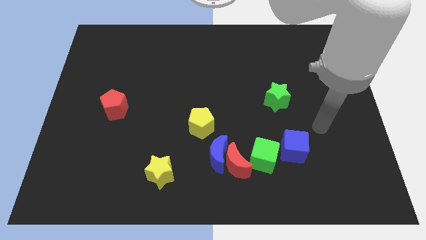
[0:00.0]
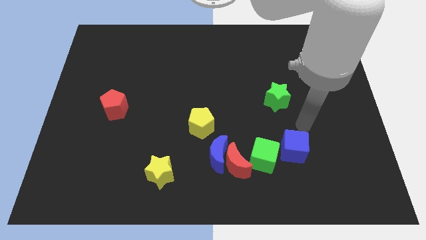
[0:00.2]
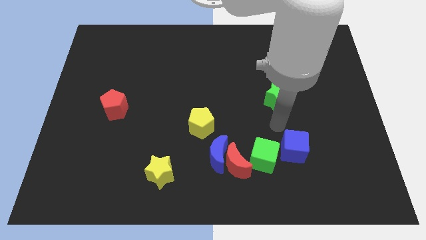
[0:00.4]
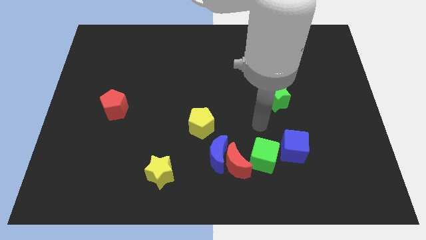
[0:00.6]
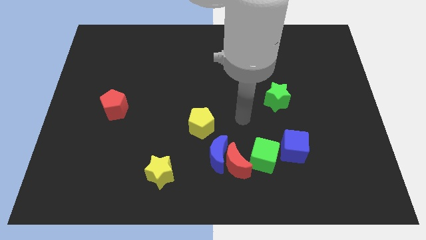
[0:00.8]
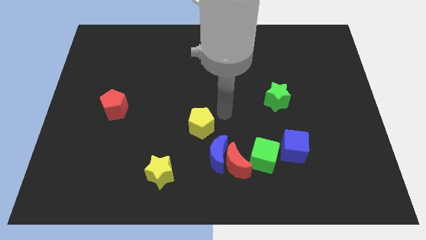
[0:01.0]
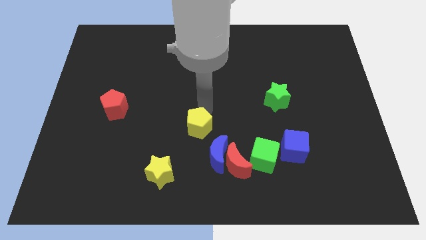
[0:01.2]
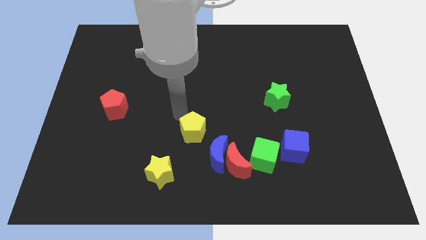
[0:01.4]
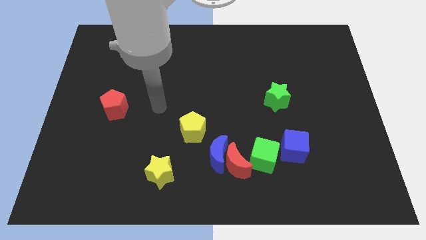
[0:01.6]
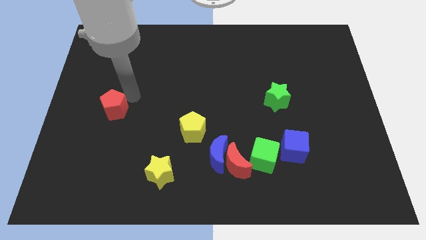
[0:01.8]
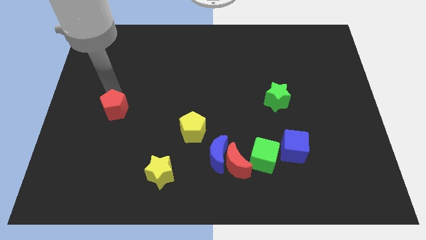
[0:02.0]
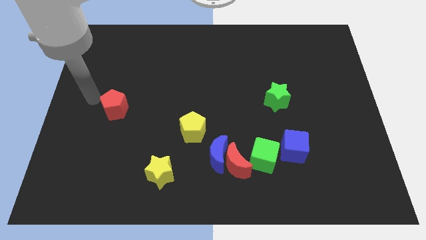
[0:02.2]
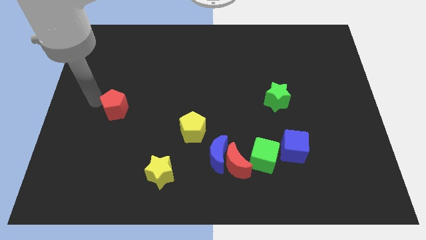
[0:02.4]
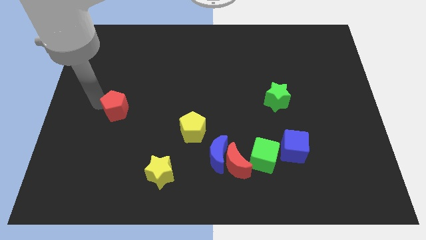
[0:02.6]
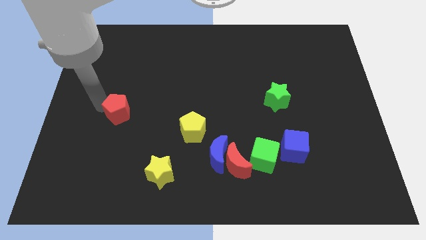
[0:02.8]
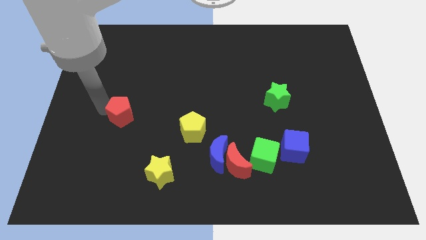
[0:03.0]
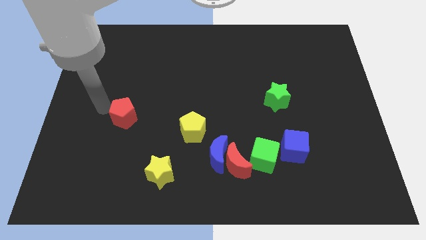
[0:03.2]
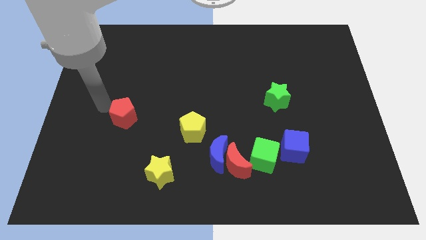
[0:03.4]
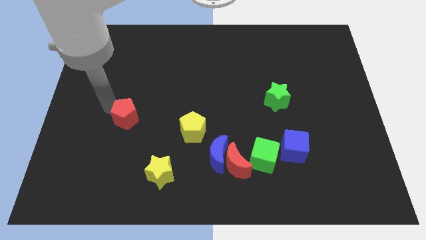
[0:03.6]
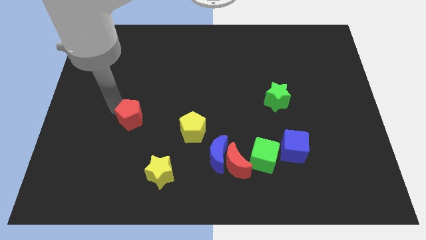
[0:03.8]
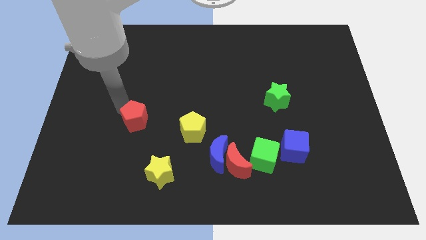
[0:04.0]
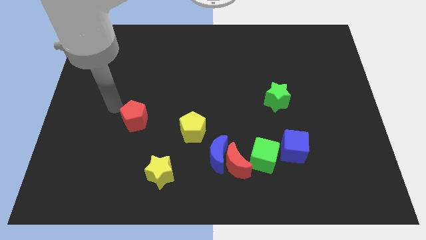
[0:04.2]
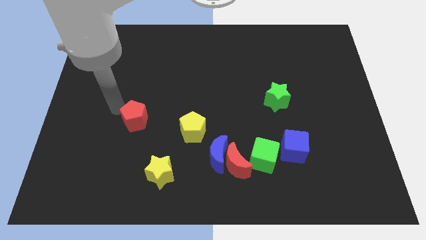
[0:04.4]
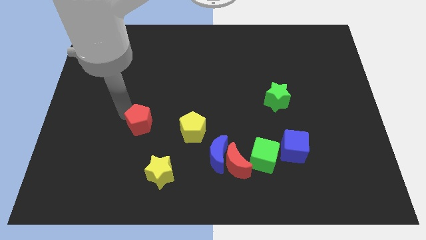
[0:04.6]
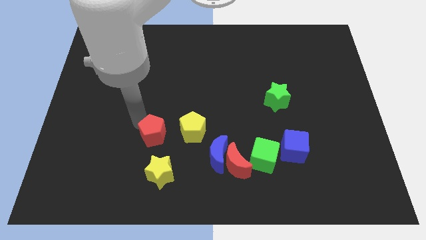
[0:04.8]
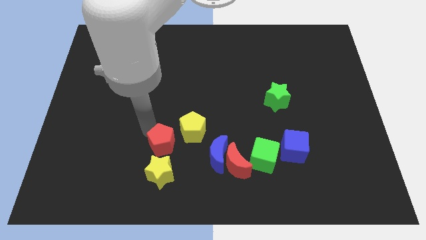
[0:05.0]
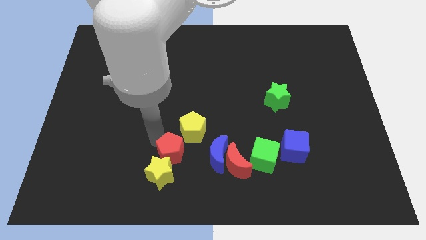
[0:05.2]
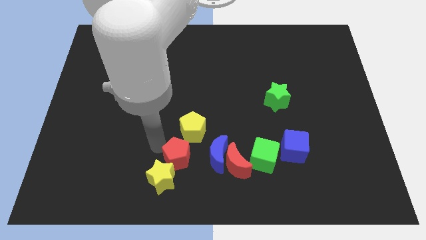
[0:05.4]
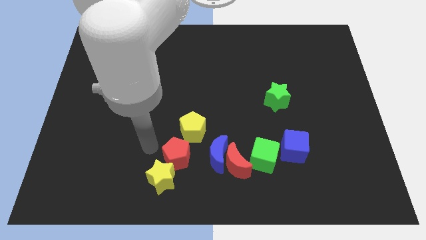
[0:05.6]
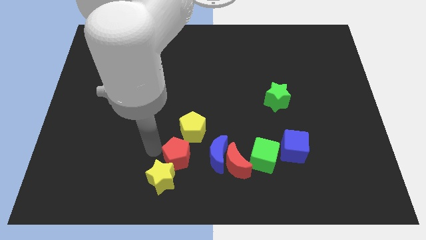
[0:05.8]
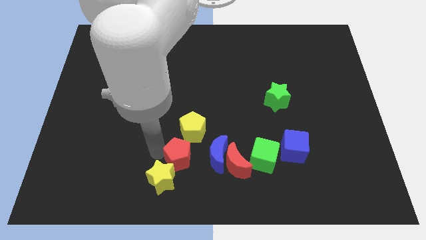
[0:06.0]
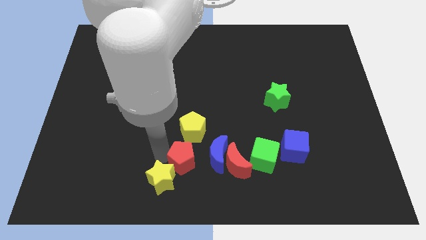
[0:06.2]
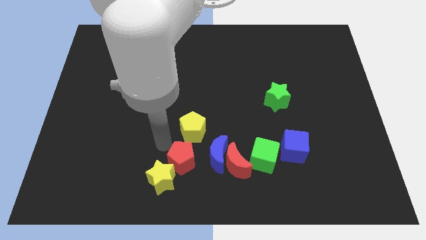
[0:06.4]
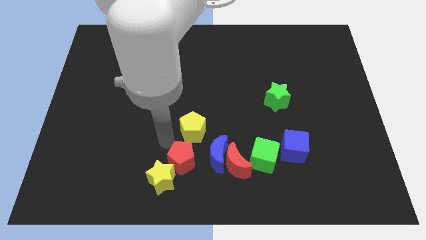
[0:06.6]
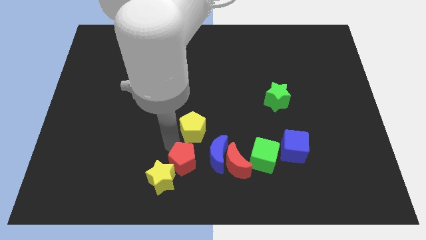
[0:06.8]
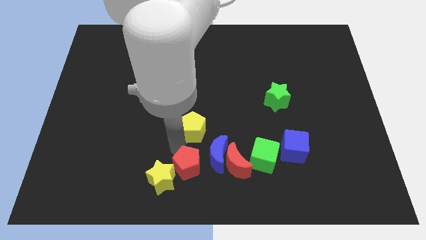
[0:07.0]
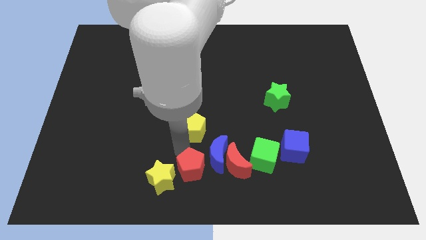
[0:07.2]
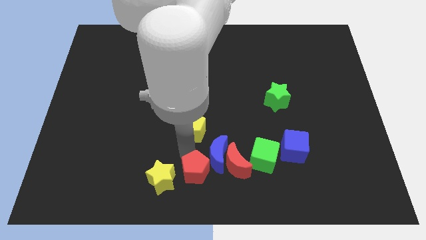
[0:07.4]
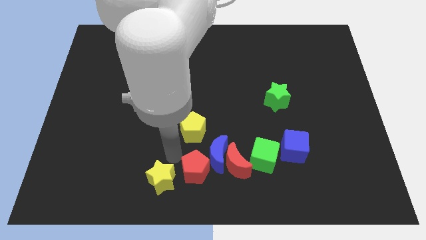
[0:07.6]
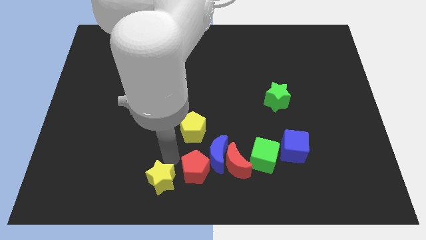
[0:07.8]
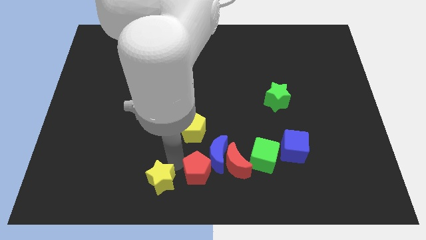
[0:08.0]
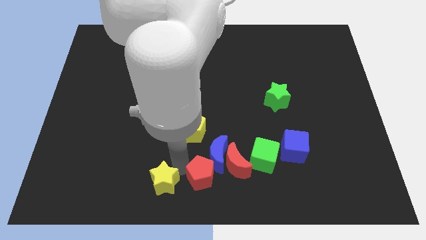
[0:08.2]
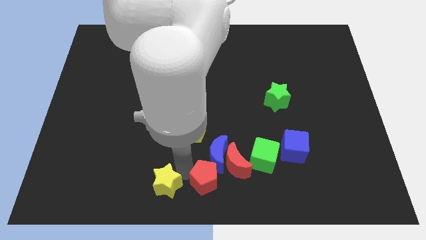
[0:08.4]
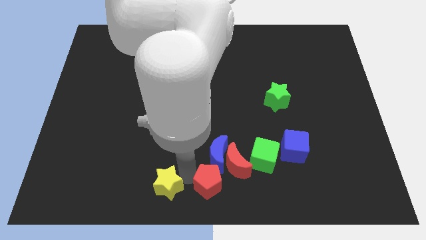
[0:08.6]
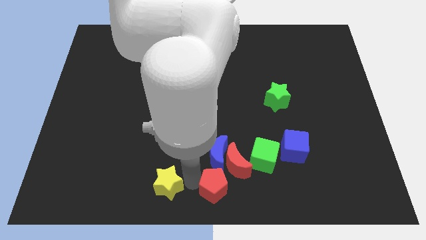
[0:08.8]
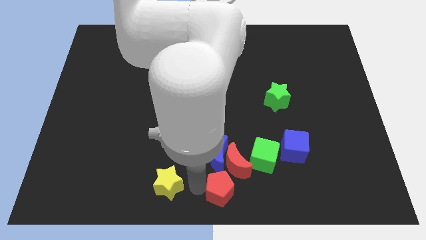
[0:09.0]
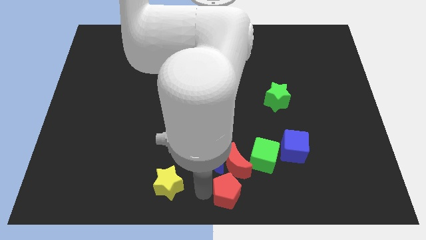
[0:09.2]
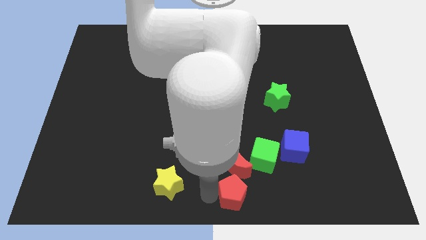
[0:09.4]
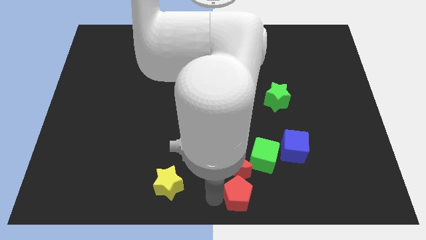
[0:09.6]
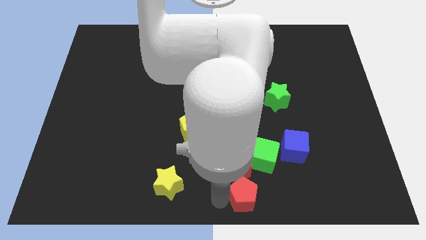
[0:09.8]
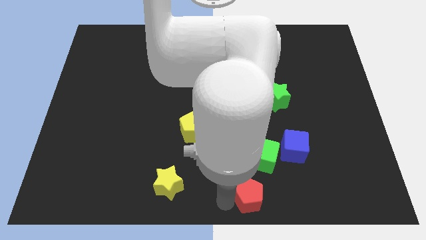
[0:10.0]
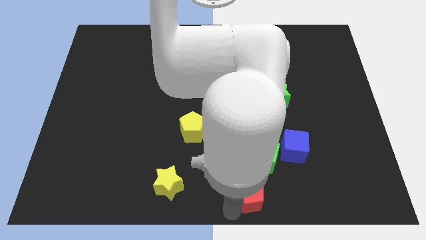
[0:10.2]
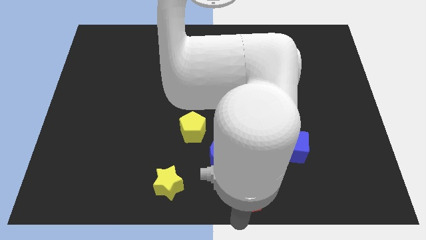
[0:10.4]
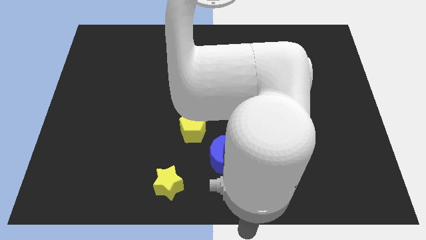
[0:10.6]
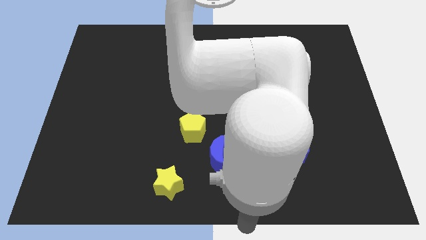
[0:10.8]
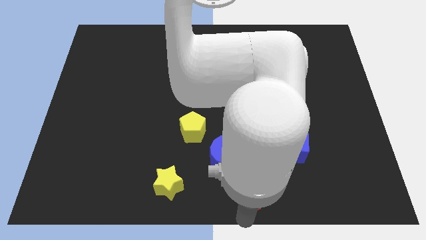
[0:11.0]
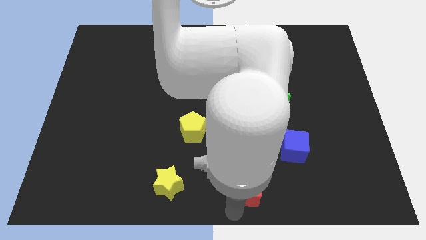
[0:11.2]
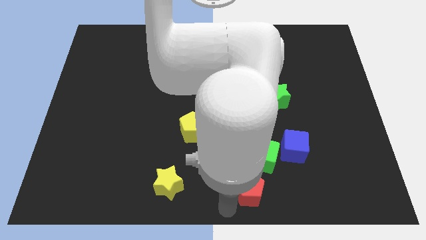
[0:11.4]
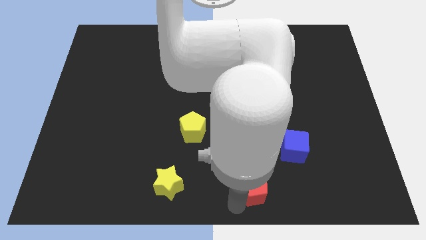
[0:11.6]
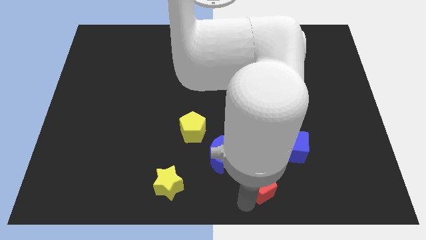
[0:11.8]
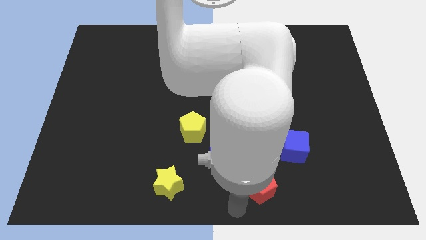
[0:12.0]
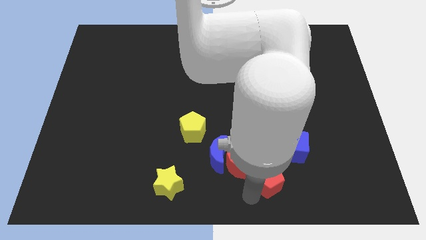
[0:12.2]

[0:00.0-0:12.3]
push the red pentagon to the right of the red moon

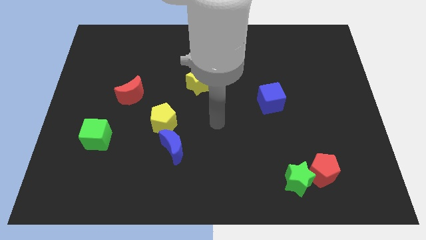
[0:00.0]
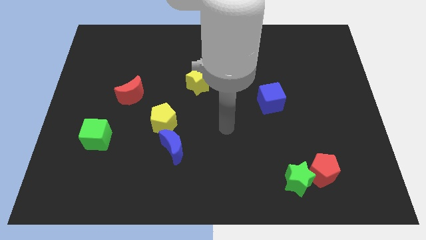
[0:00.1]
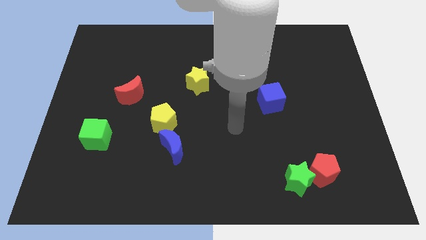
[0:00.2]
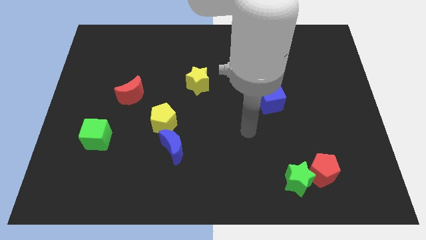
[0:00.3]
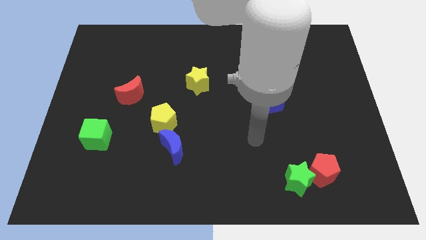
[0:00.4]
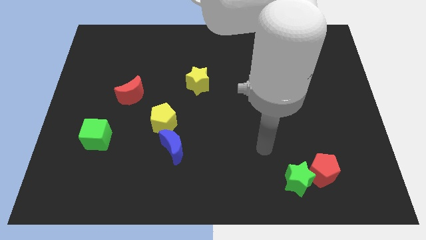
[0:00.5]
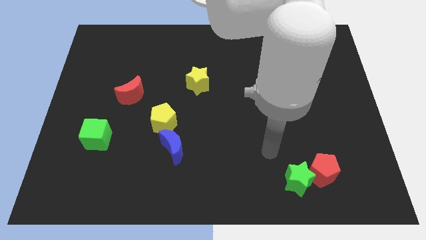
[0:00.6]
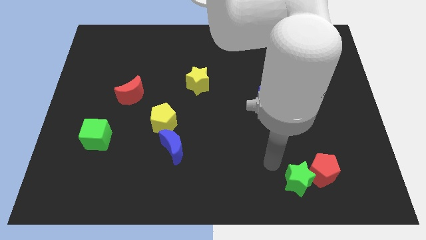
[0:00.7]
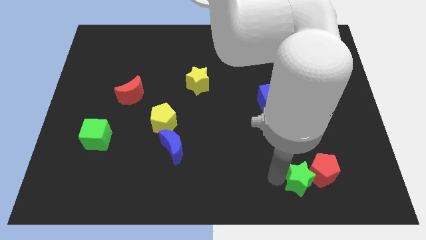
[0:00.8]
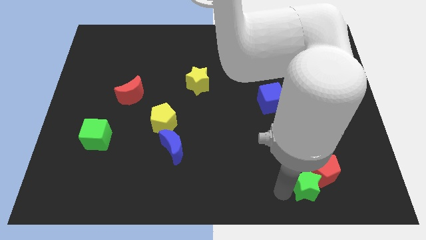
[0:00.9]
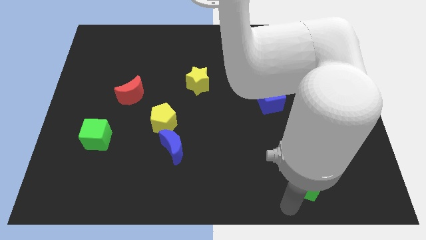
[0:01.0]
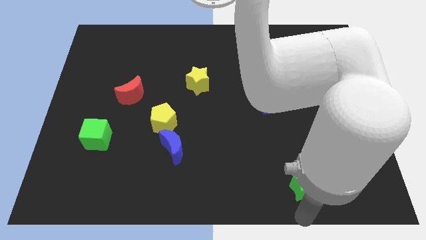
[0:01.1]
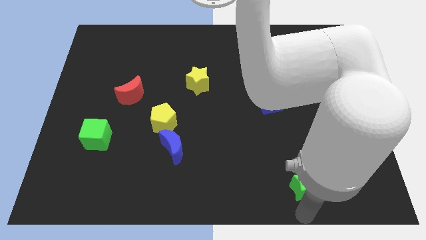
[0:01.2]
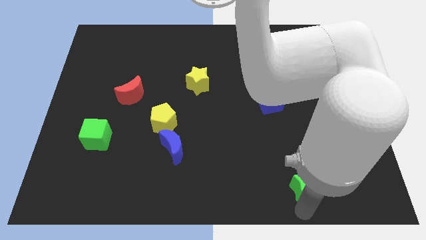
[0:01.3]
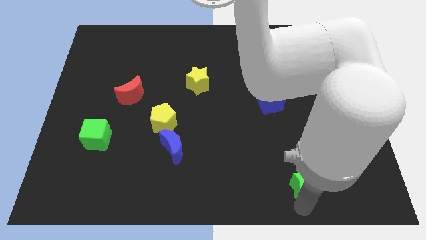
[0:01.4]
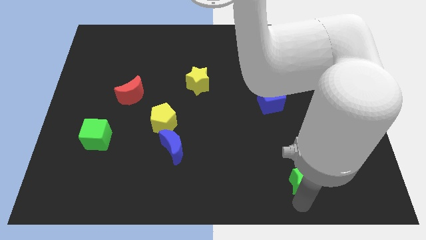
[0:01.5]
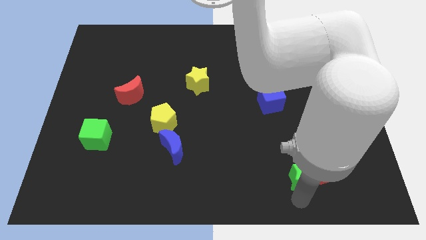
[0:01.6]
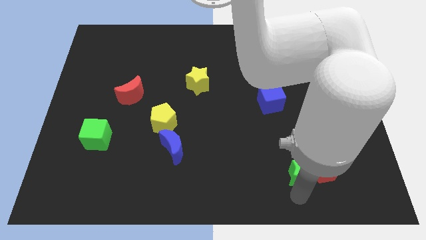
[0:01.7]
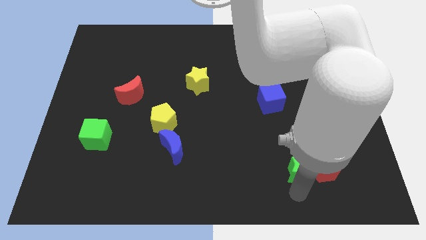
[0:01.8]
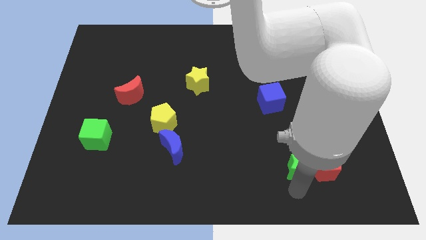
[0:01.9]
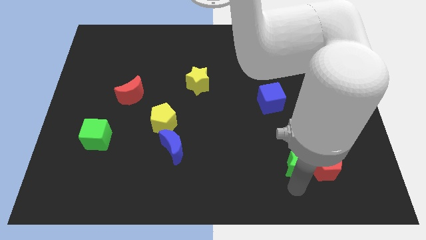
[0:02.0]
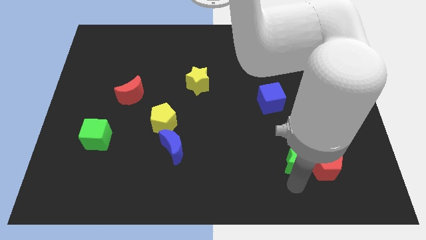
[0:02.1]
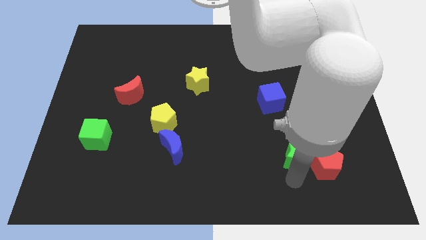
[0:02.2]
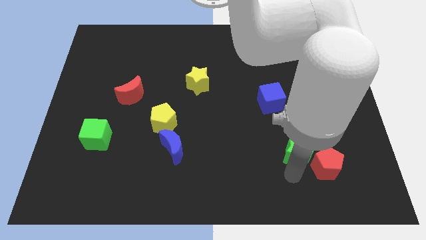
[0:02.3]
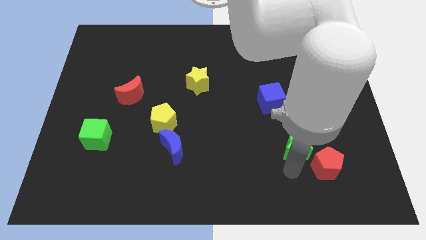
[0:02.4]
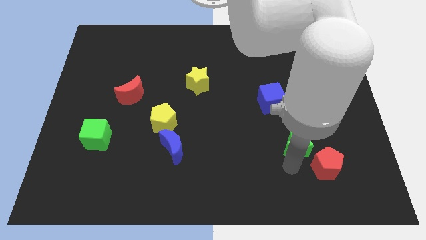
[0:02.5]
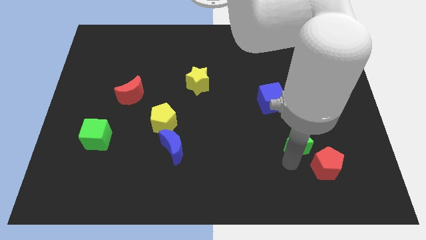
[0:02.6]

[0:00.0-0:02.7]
put the green star to the top of the red pentagon
